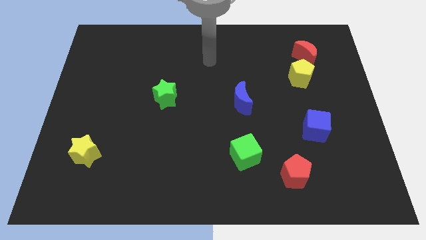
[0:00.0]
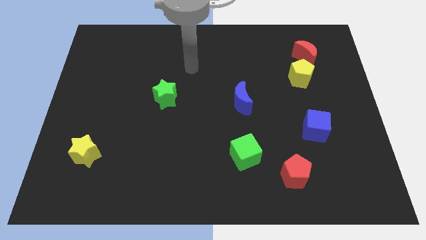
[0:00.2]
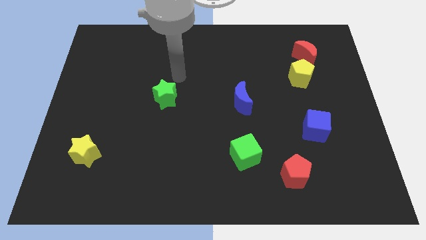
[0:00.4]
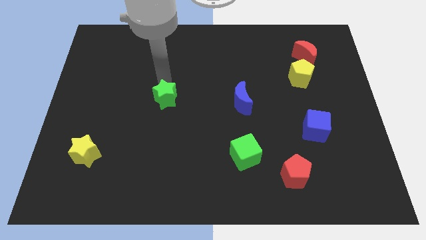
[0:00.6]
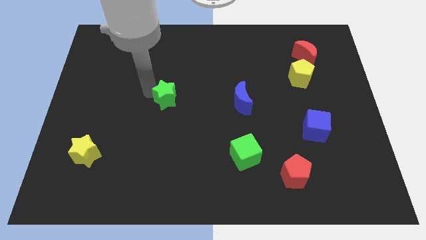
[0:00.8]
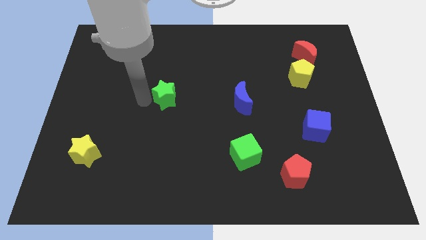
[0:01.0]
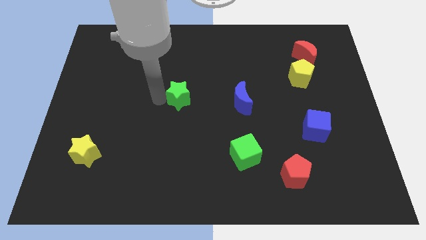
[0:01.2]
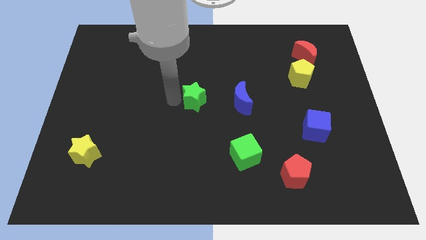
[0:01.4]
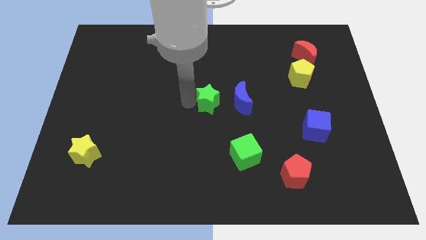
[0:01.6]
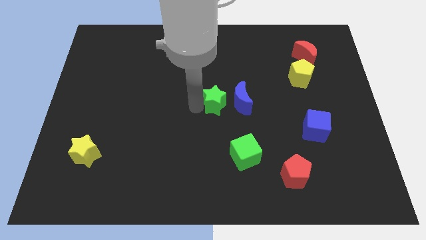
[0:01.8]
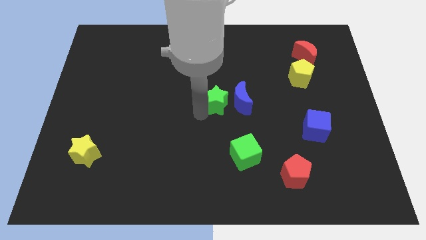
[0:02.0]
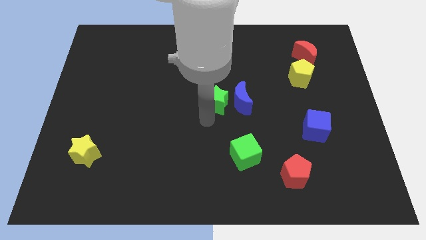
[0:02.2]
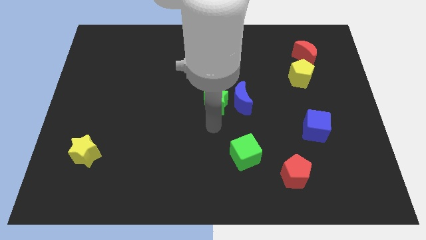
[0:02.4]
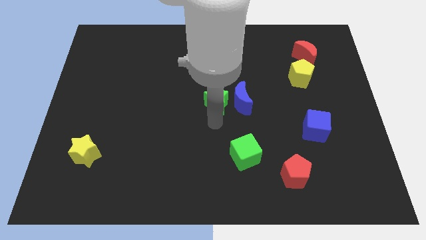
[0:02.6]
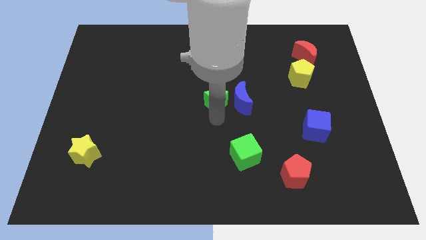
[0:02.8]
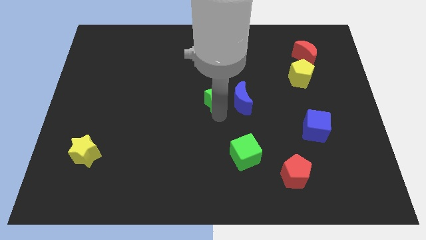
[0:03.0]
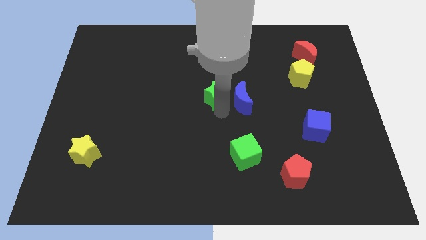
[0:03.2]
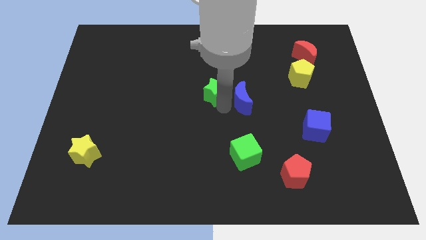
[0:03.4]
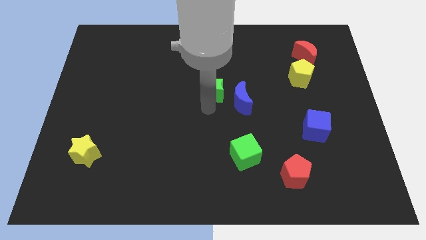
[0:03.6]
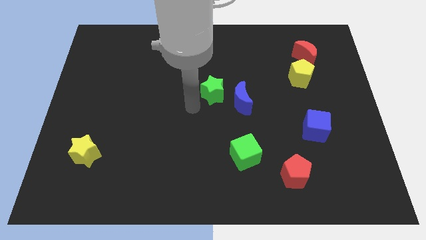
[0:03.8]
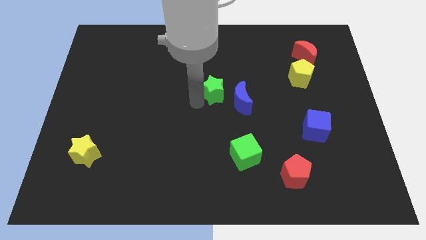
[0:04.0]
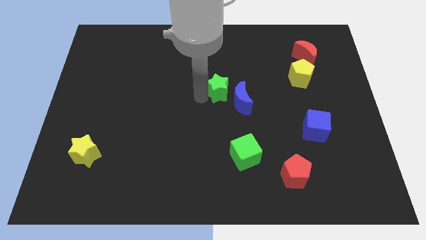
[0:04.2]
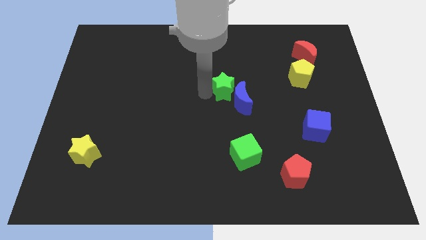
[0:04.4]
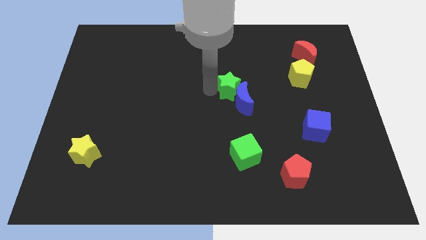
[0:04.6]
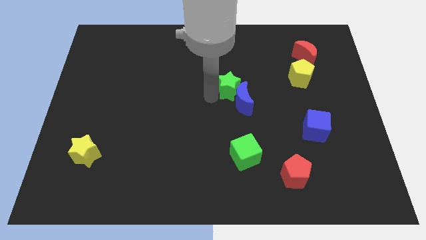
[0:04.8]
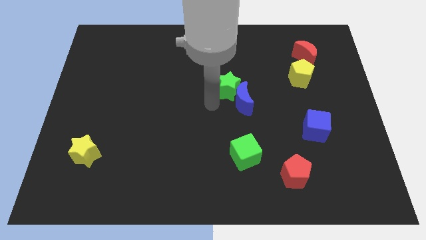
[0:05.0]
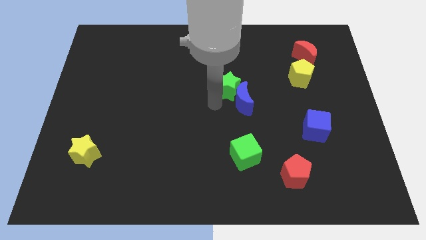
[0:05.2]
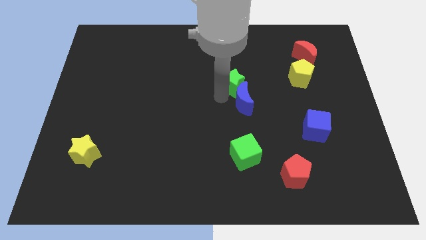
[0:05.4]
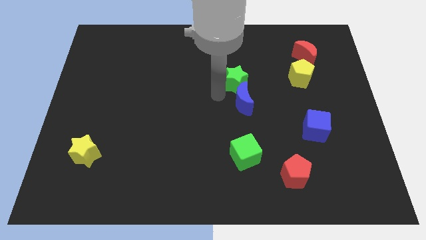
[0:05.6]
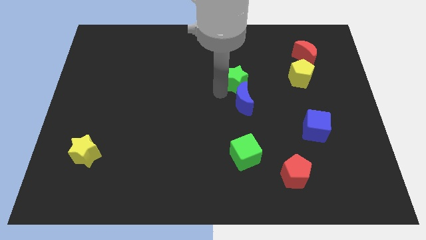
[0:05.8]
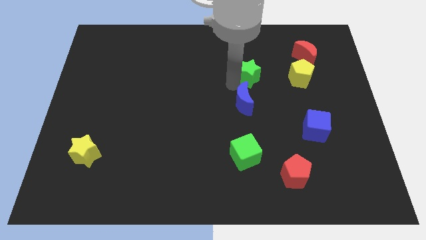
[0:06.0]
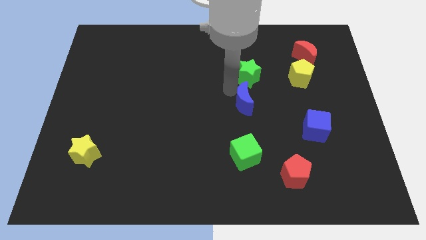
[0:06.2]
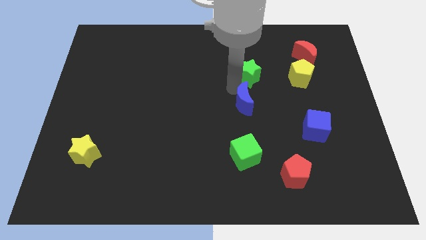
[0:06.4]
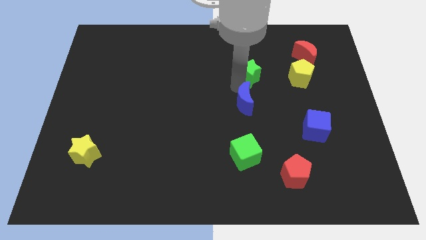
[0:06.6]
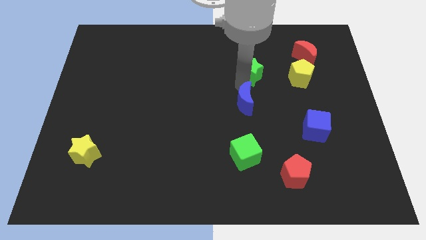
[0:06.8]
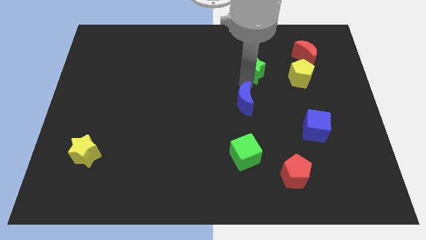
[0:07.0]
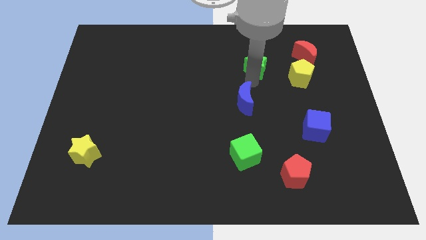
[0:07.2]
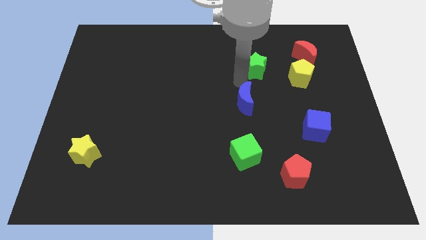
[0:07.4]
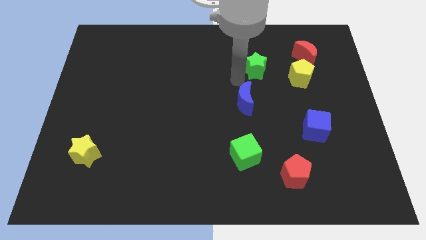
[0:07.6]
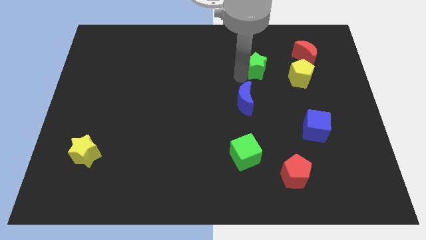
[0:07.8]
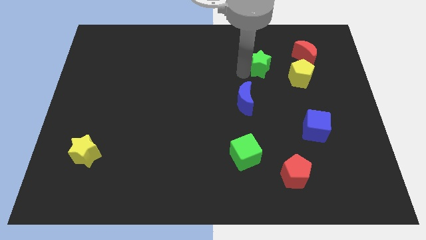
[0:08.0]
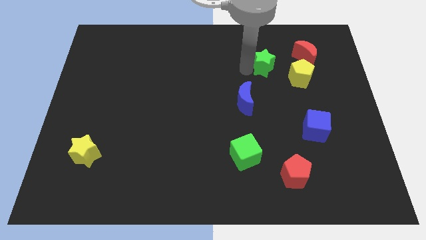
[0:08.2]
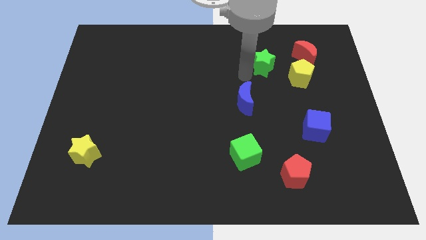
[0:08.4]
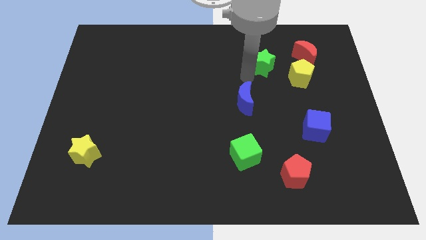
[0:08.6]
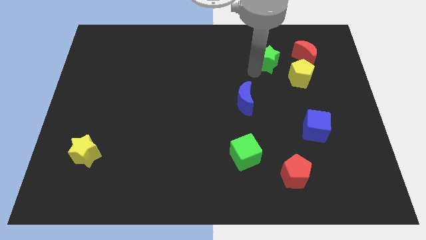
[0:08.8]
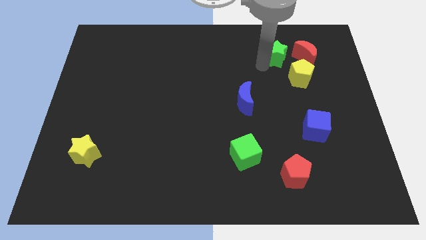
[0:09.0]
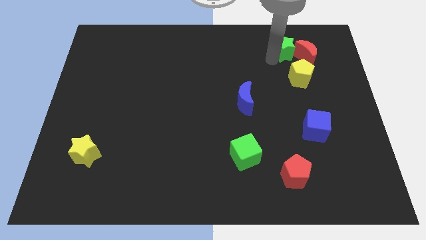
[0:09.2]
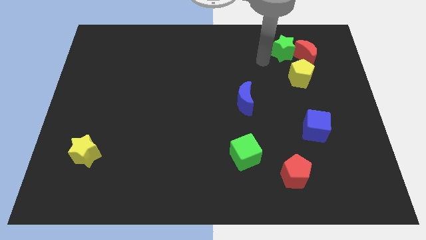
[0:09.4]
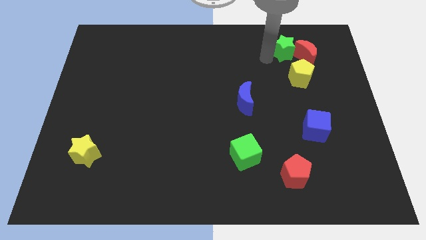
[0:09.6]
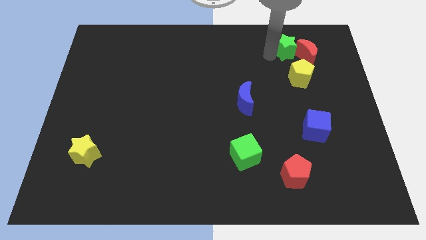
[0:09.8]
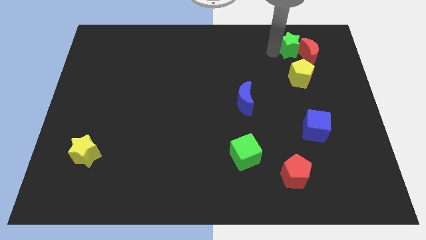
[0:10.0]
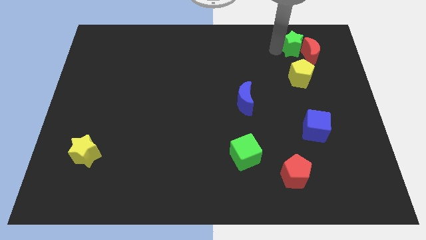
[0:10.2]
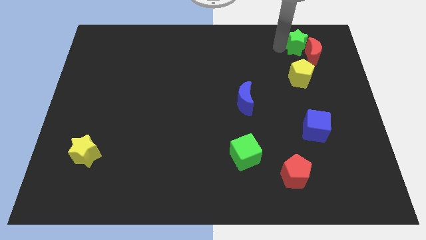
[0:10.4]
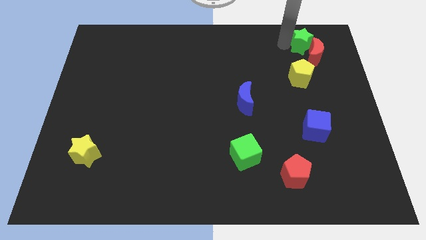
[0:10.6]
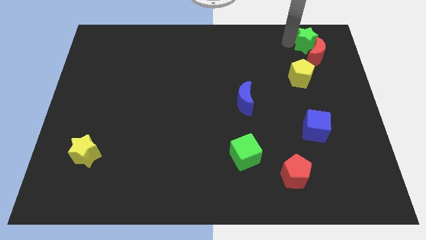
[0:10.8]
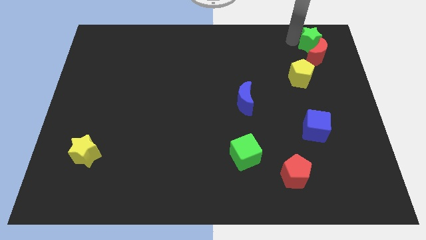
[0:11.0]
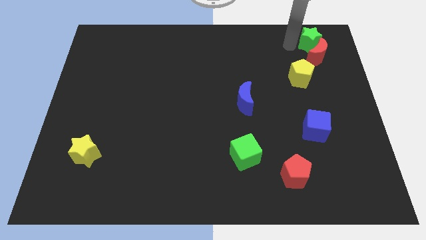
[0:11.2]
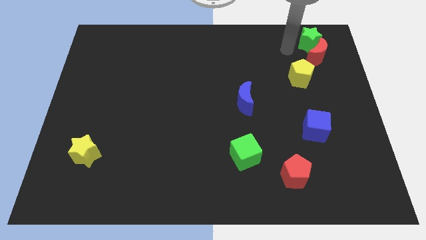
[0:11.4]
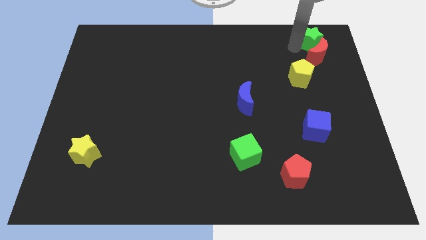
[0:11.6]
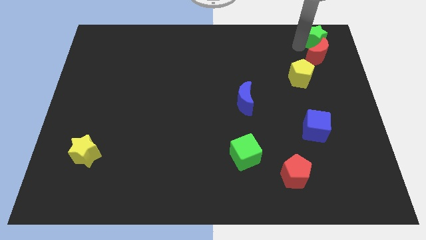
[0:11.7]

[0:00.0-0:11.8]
slide the green star to the top right
